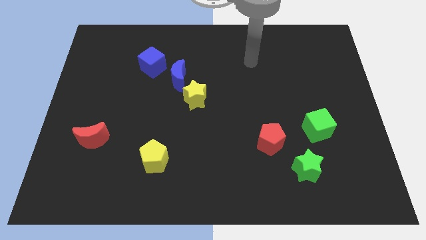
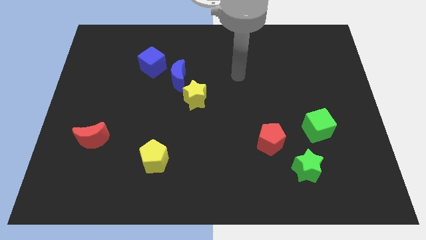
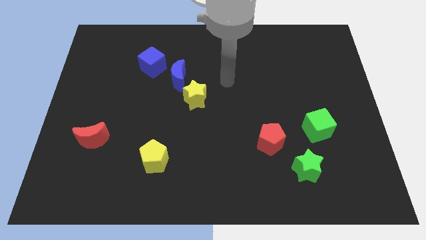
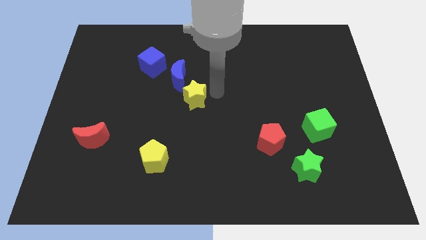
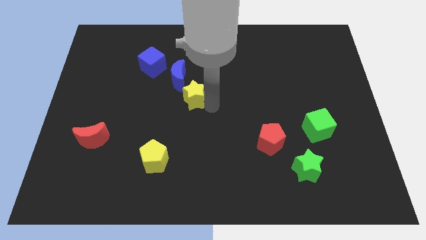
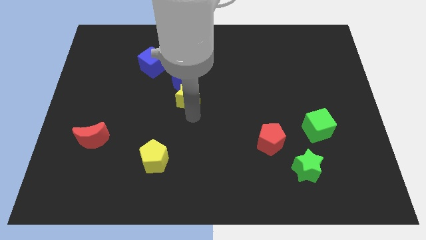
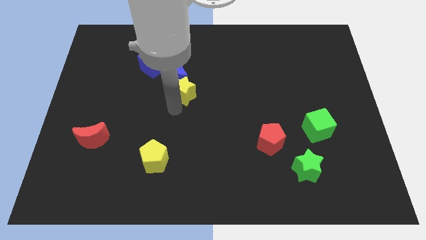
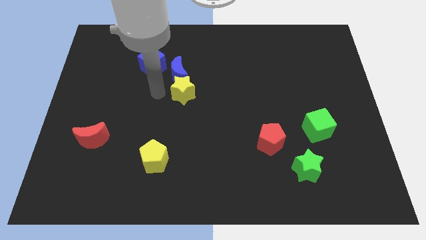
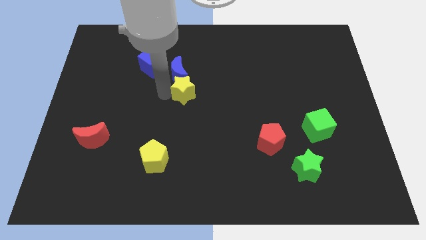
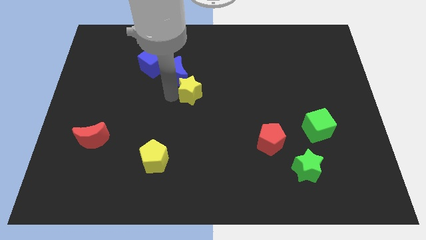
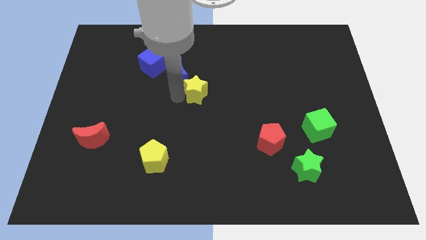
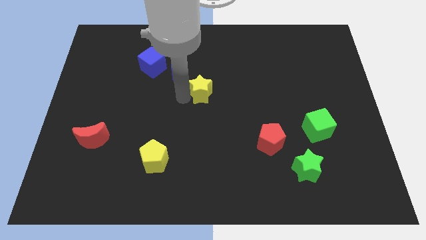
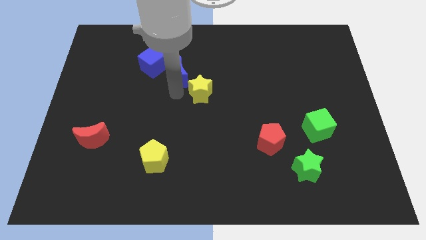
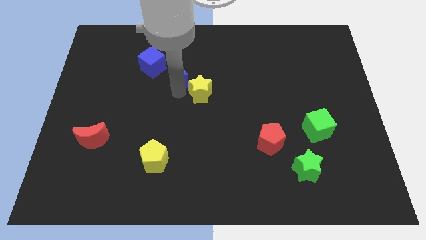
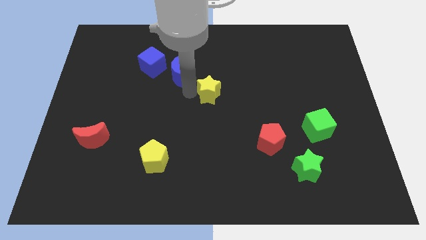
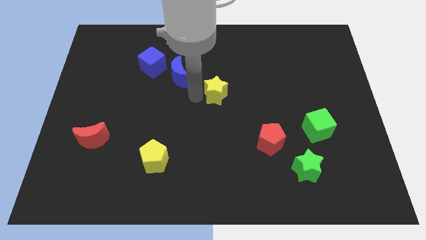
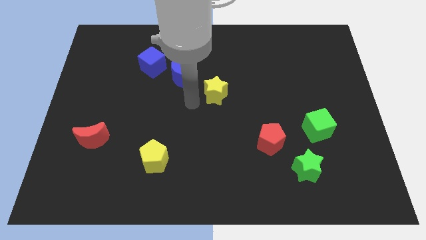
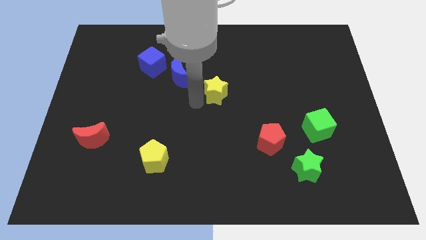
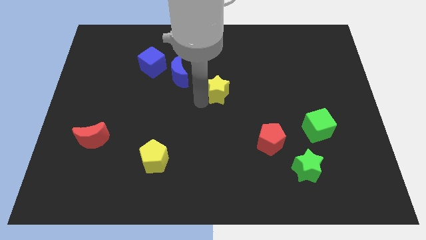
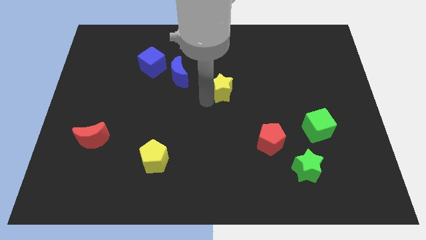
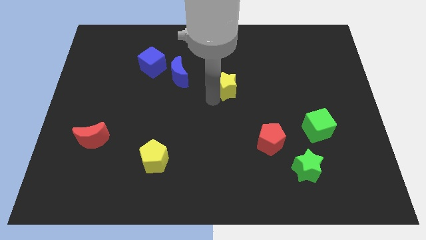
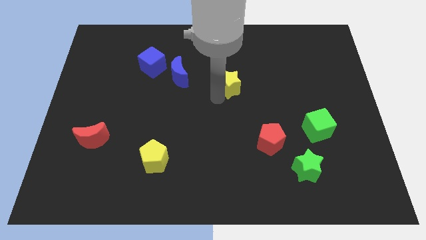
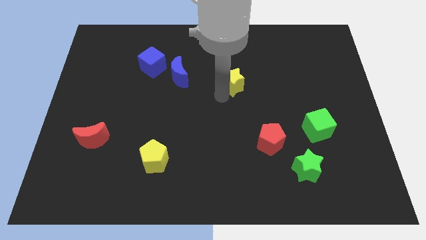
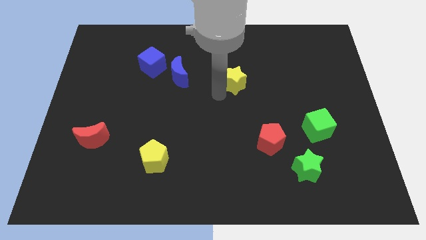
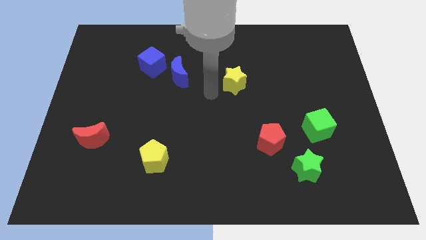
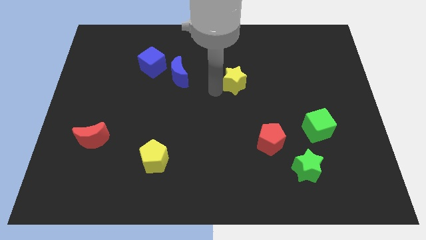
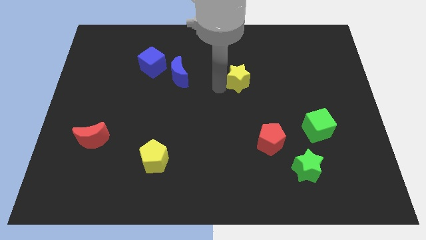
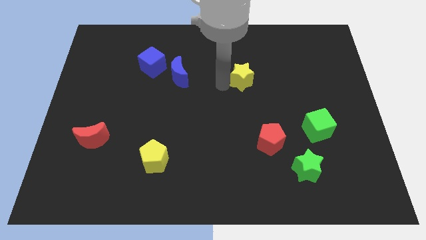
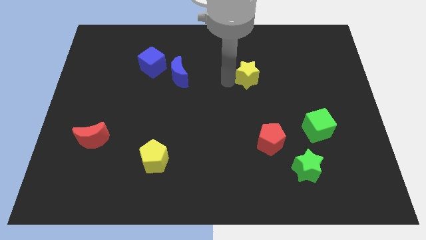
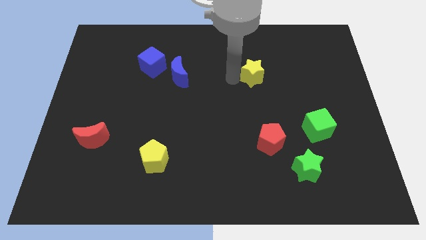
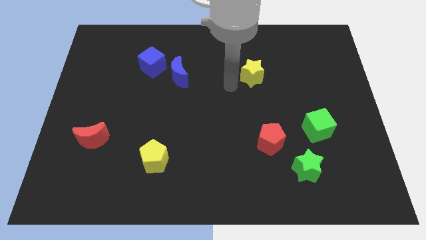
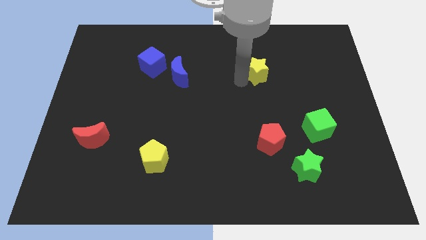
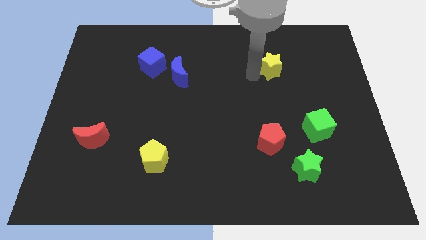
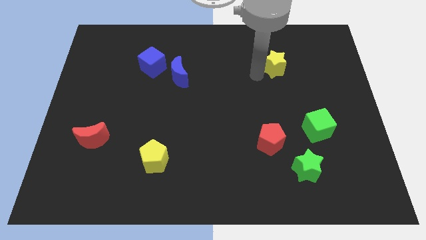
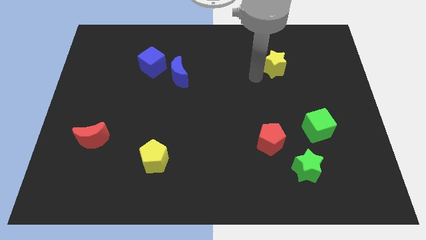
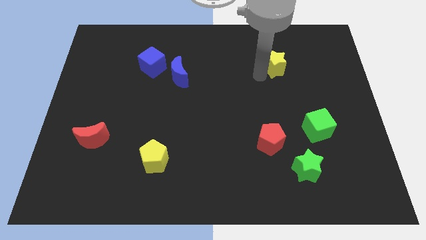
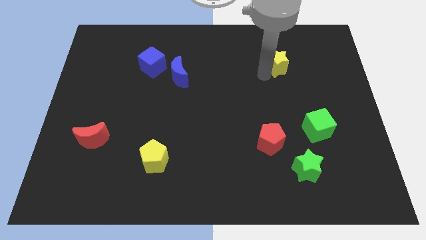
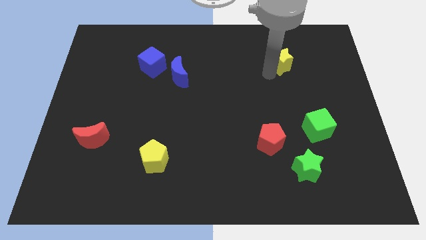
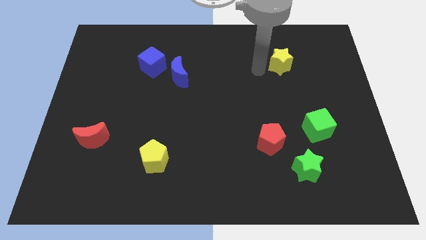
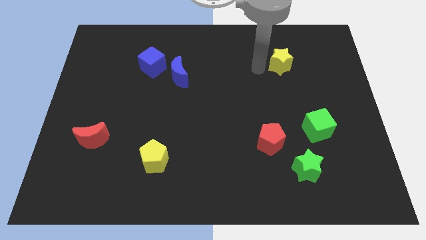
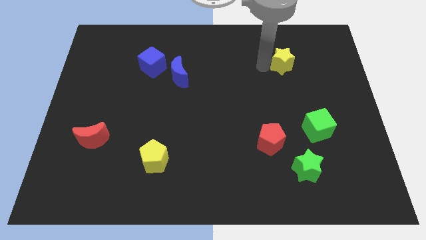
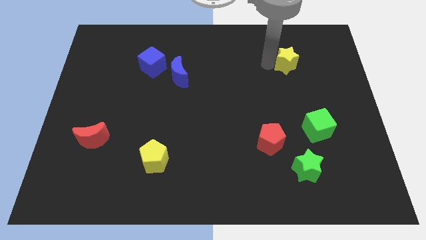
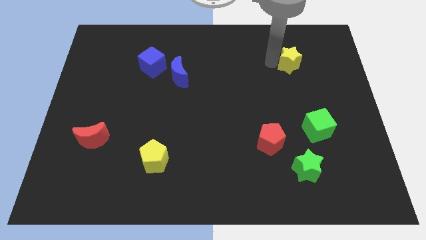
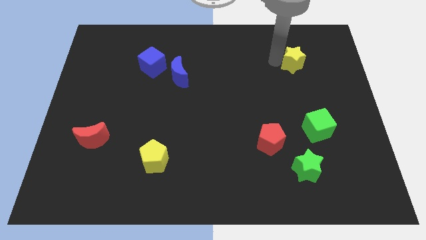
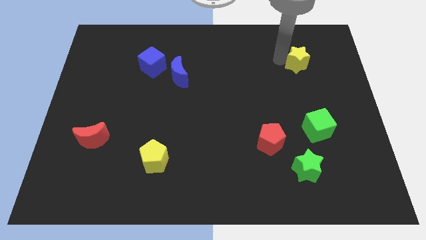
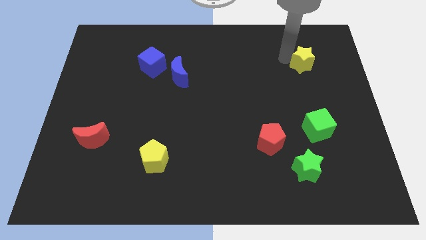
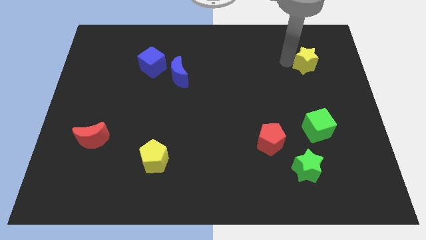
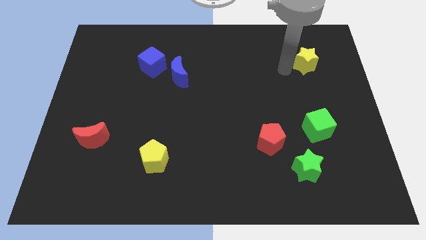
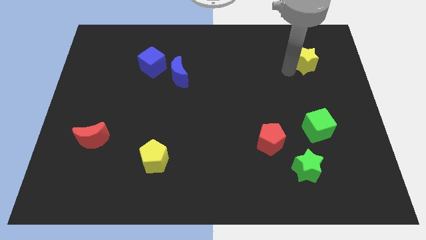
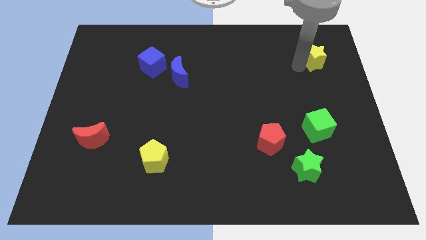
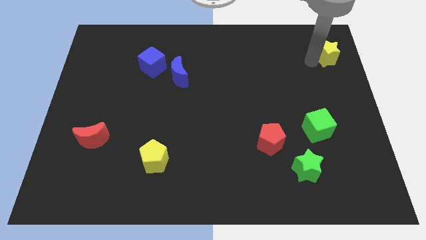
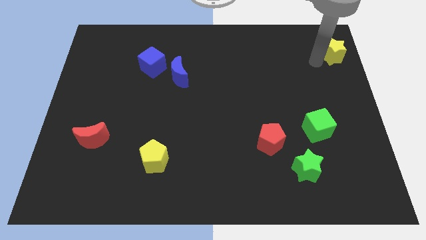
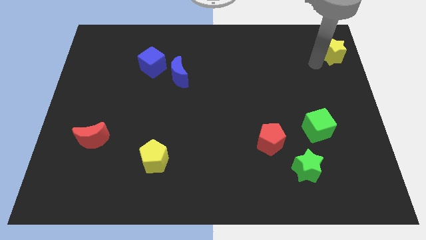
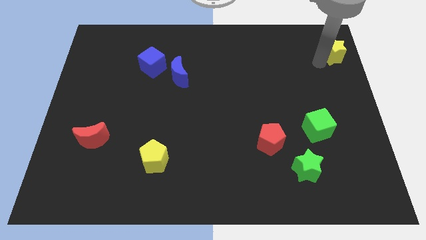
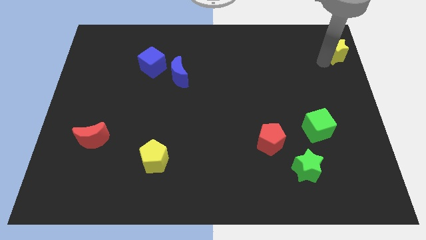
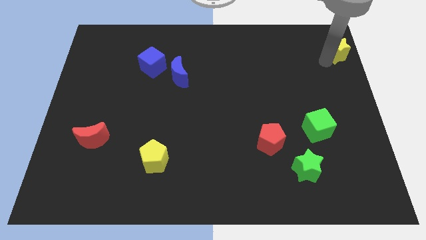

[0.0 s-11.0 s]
move the yellow star to the upper right corner

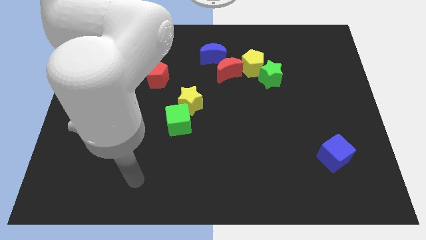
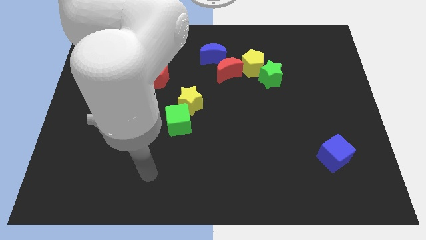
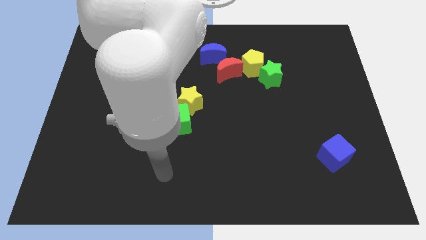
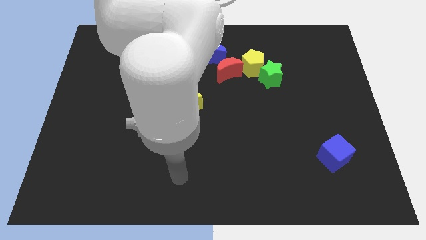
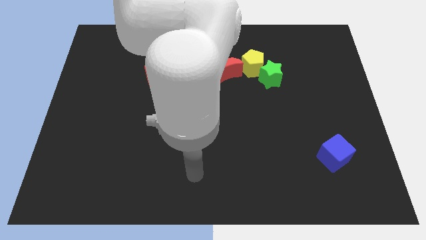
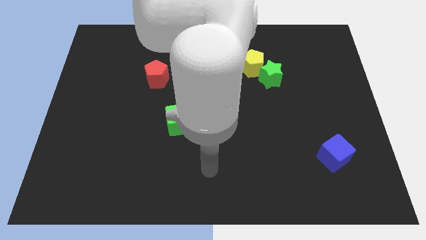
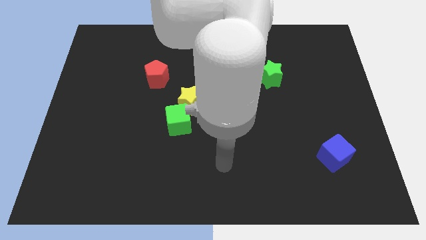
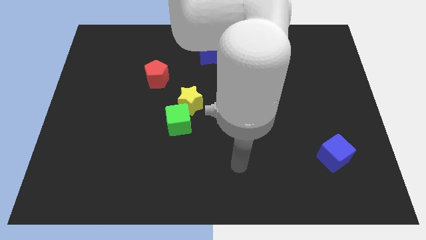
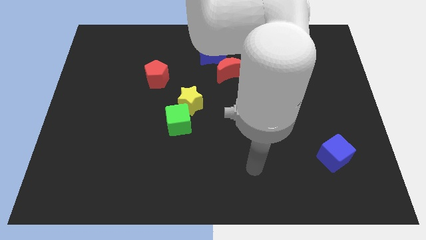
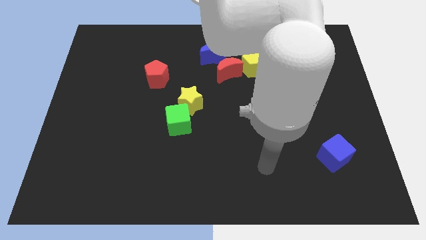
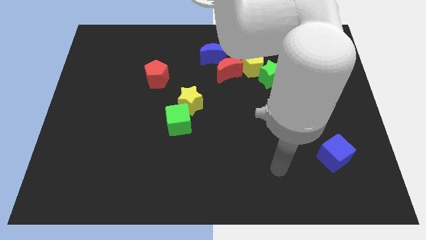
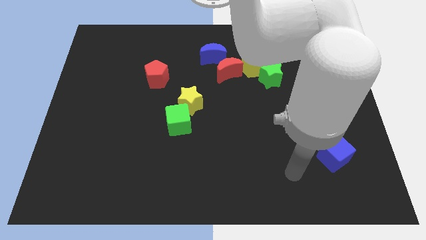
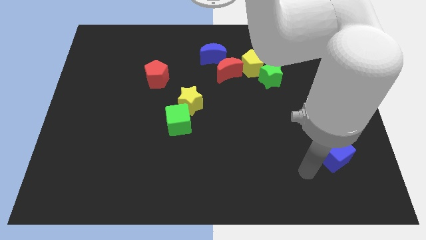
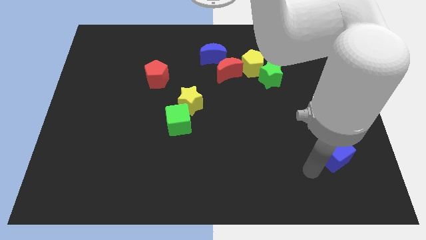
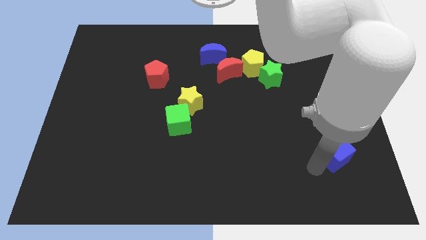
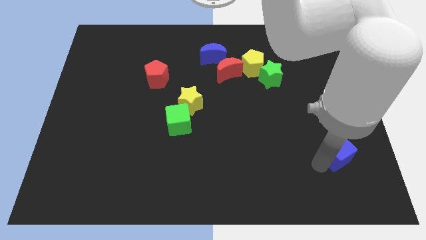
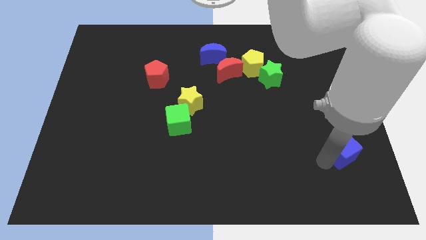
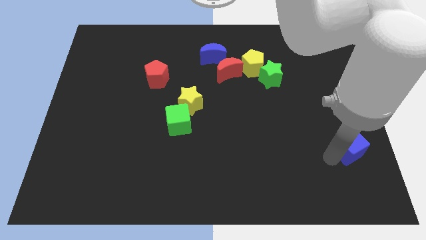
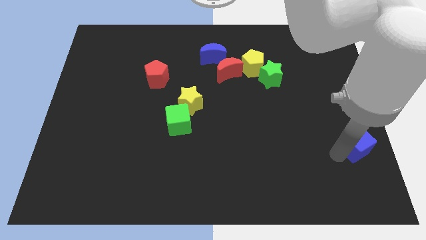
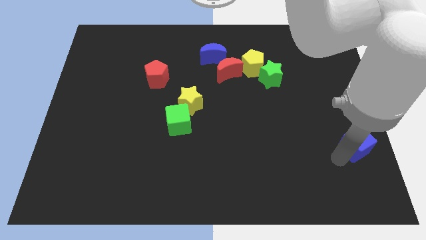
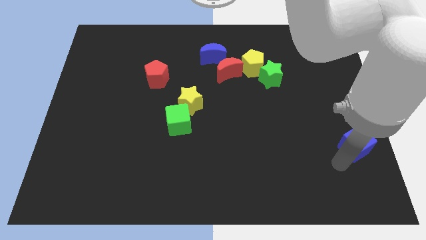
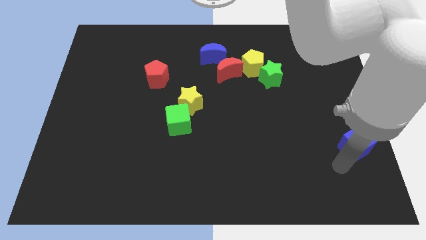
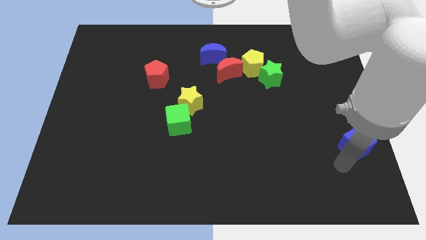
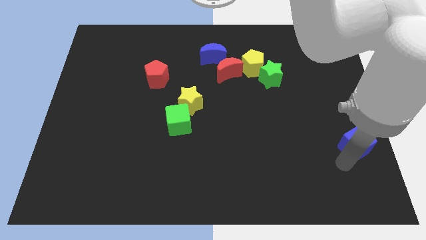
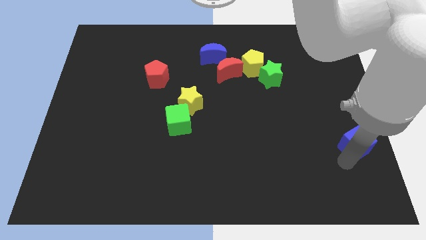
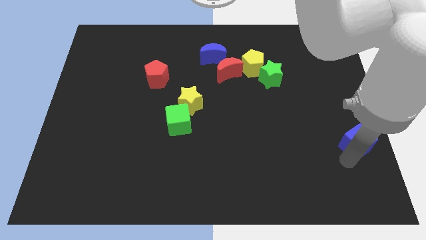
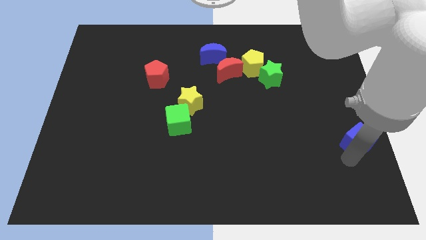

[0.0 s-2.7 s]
put the blue cube to the right side
